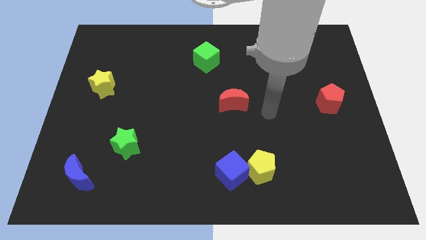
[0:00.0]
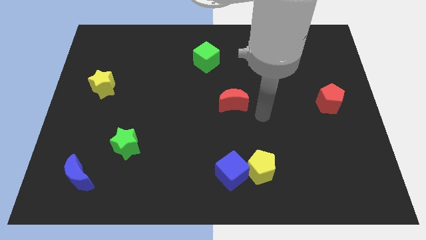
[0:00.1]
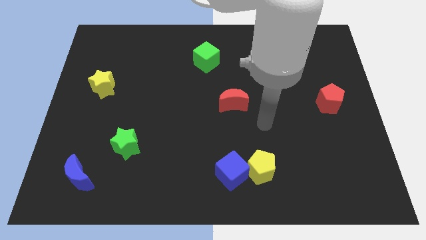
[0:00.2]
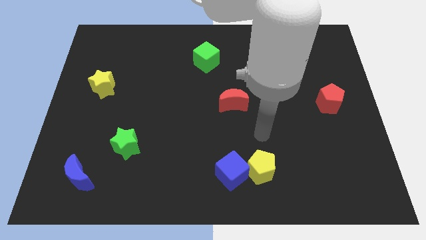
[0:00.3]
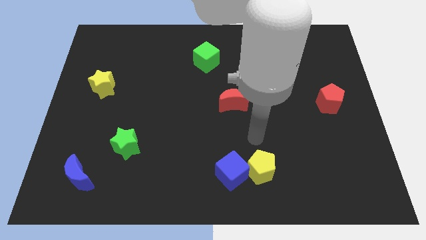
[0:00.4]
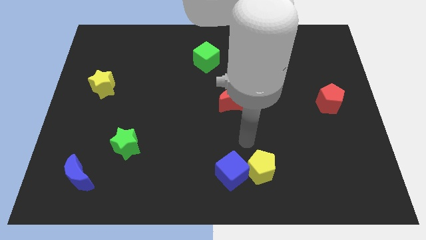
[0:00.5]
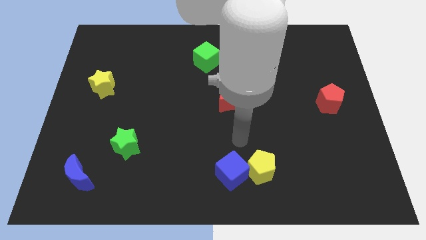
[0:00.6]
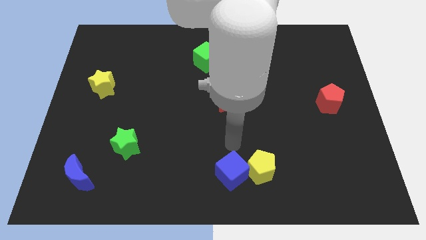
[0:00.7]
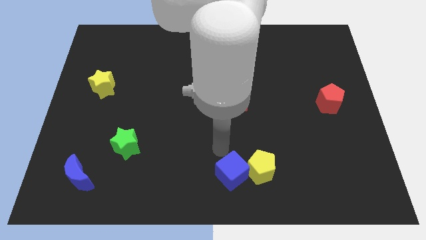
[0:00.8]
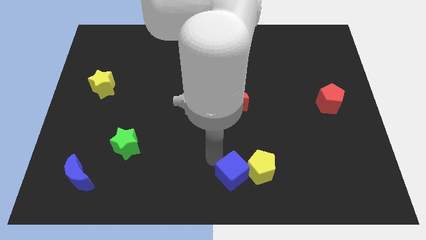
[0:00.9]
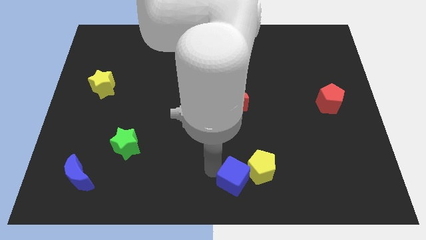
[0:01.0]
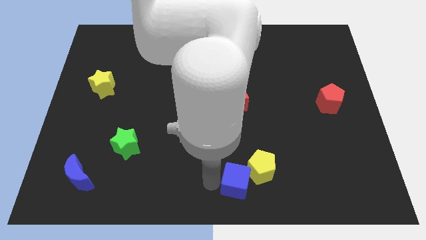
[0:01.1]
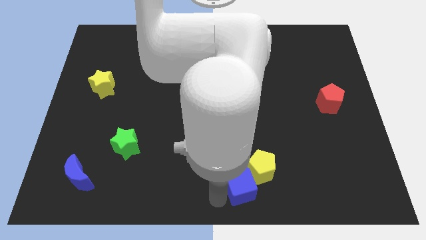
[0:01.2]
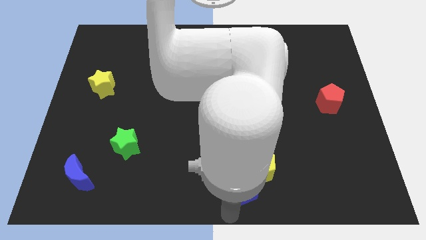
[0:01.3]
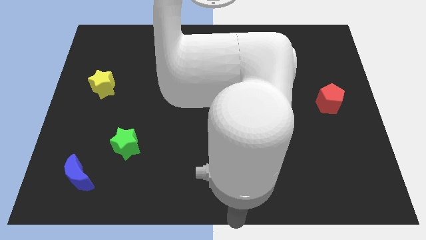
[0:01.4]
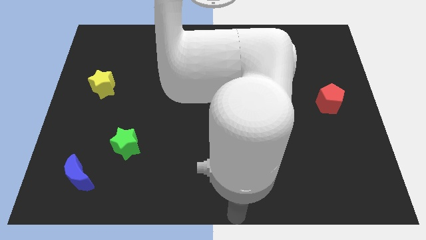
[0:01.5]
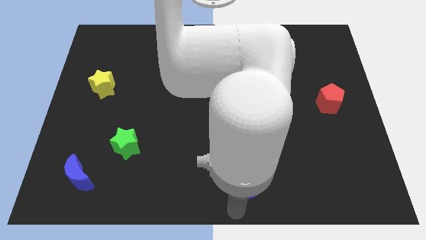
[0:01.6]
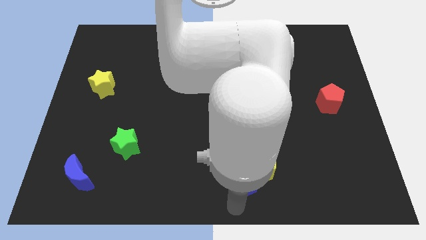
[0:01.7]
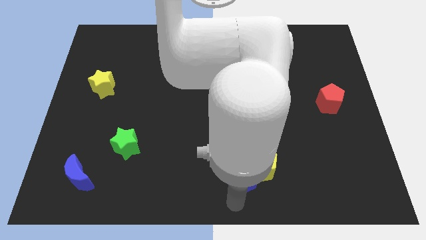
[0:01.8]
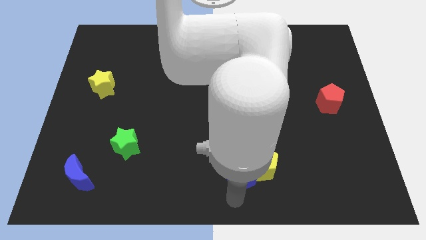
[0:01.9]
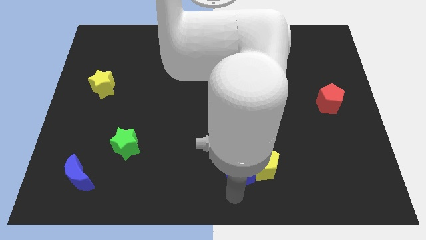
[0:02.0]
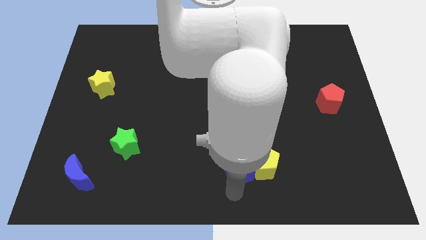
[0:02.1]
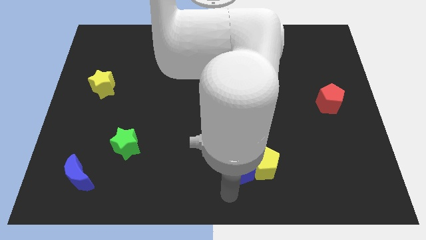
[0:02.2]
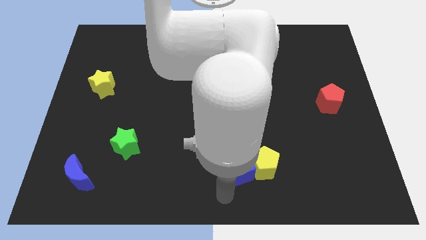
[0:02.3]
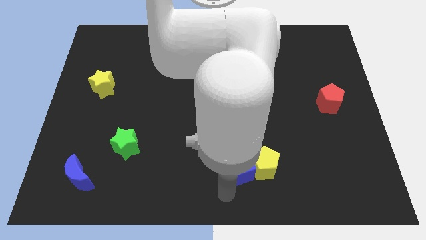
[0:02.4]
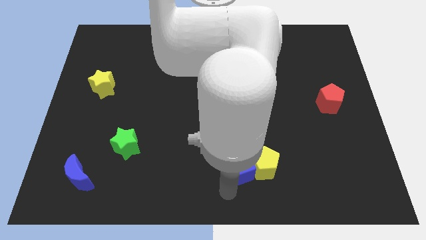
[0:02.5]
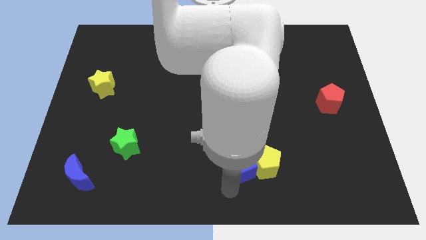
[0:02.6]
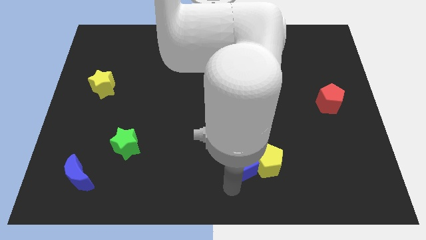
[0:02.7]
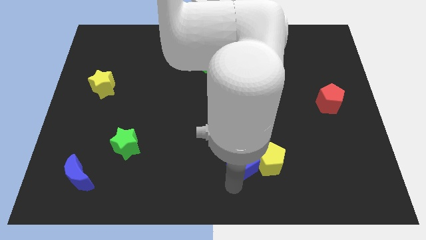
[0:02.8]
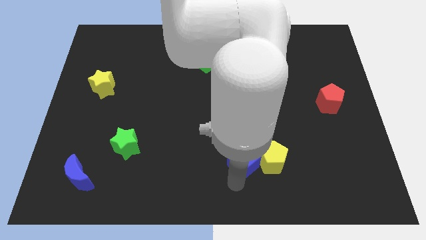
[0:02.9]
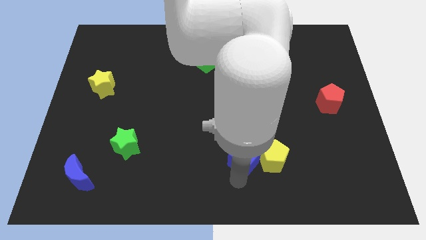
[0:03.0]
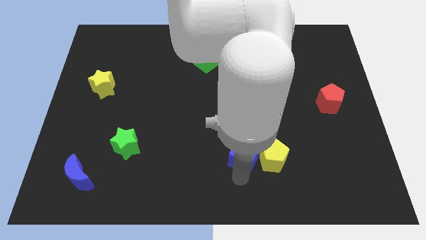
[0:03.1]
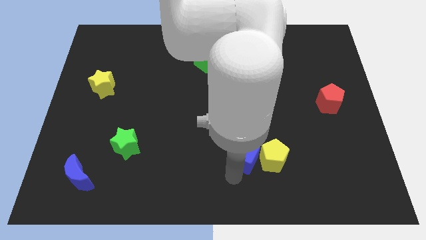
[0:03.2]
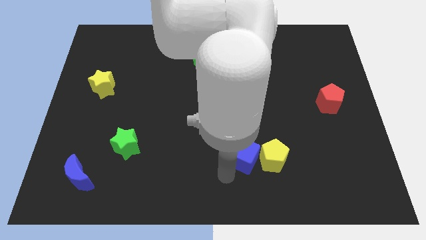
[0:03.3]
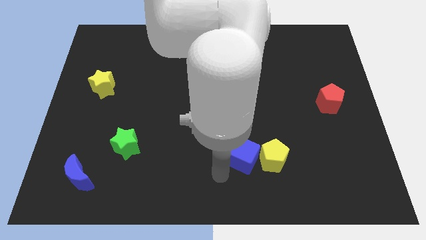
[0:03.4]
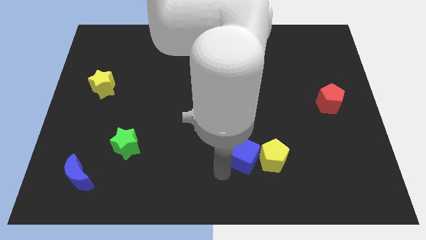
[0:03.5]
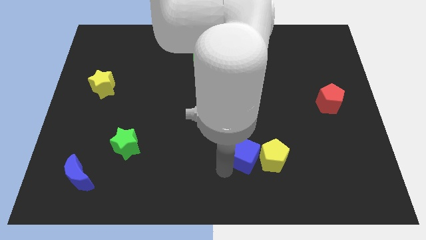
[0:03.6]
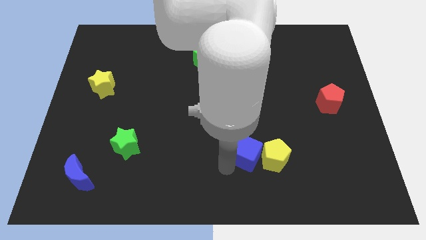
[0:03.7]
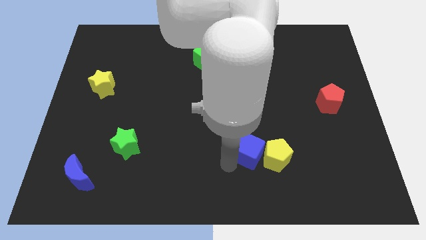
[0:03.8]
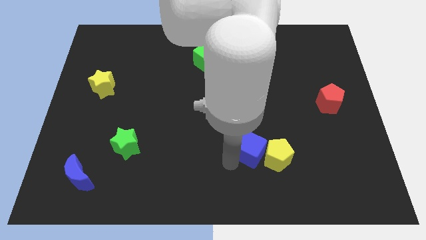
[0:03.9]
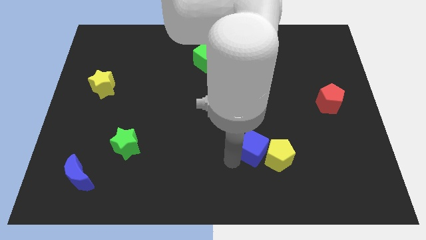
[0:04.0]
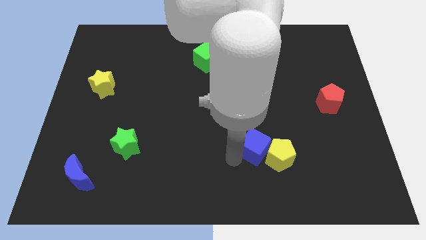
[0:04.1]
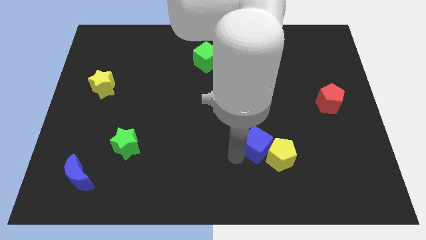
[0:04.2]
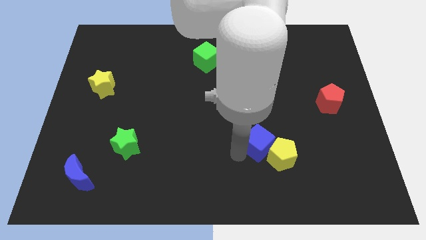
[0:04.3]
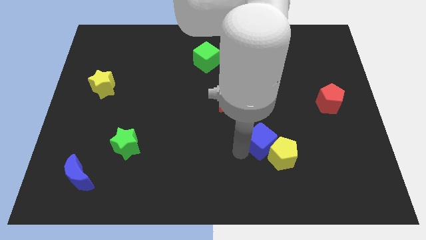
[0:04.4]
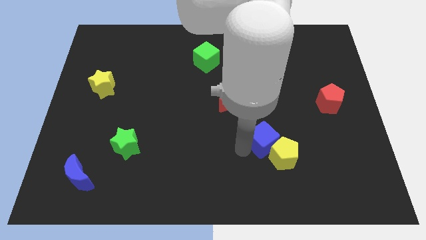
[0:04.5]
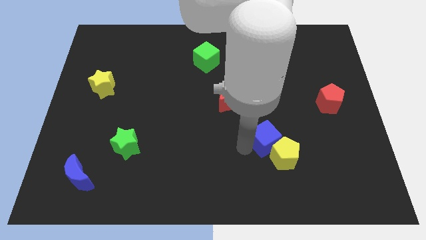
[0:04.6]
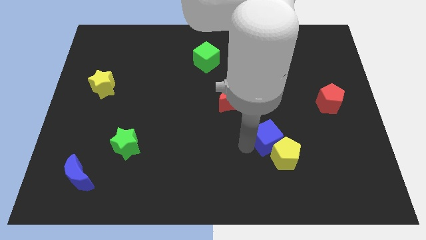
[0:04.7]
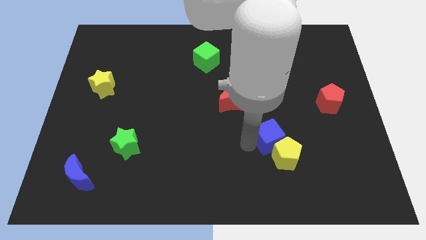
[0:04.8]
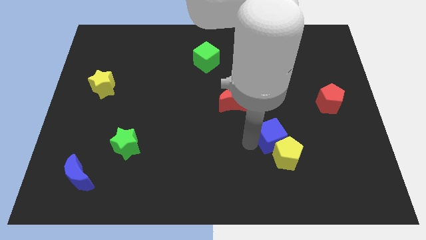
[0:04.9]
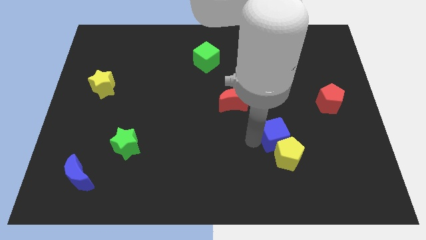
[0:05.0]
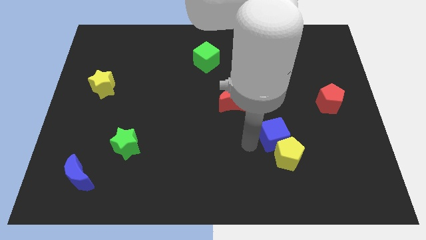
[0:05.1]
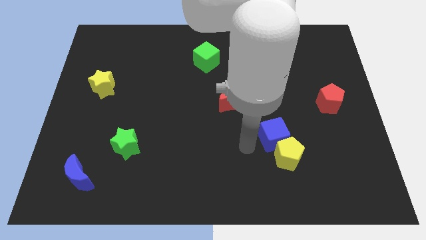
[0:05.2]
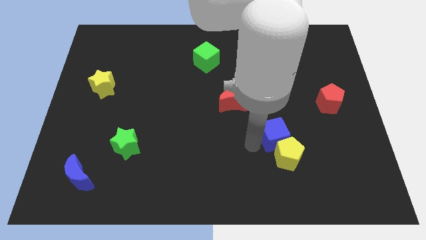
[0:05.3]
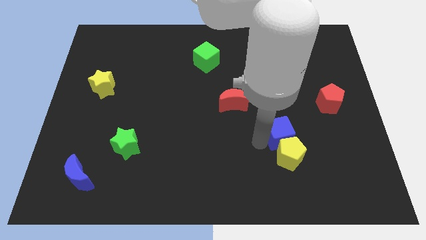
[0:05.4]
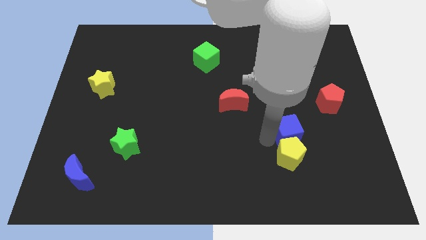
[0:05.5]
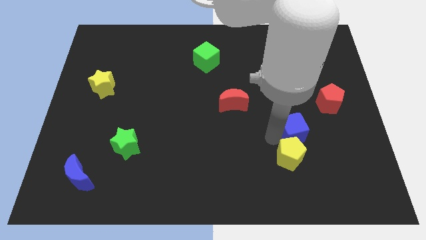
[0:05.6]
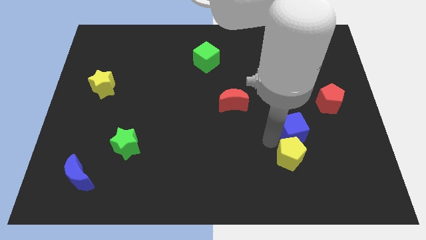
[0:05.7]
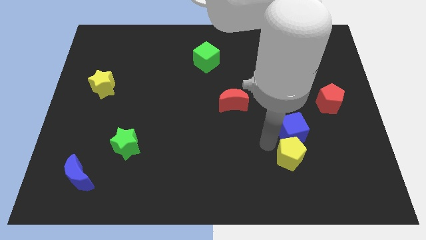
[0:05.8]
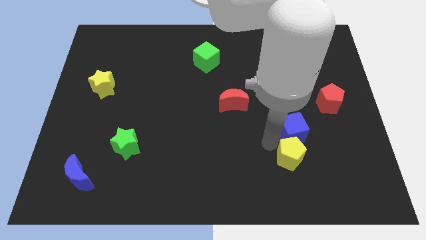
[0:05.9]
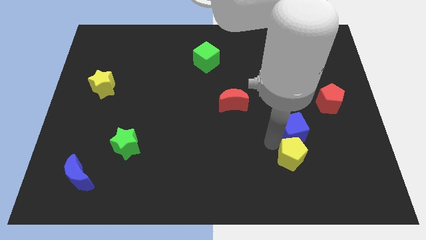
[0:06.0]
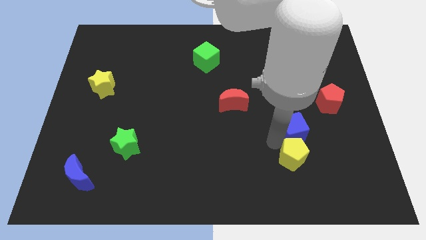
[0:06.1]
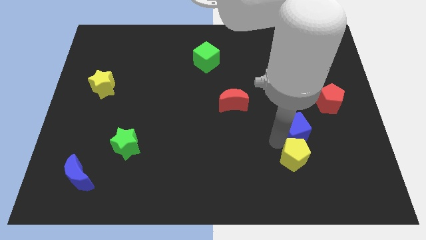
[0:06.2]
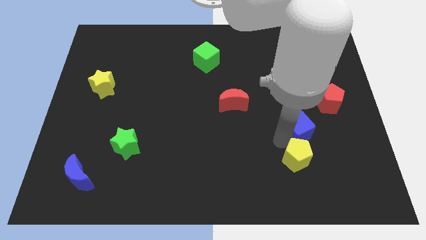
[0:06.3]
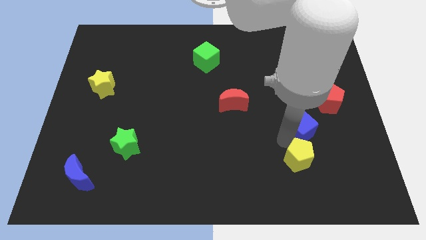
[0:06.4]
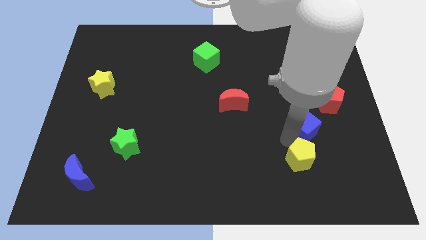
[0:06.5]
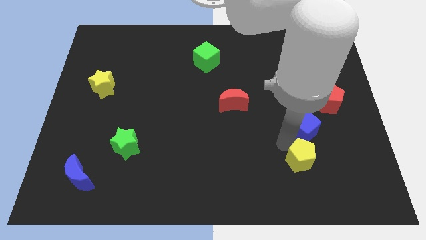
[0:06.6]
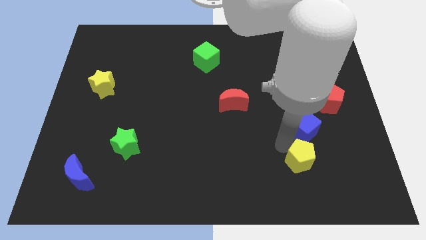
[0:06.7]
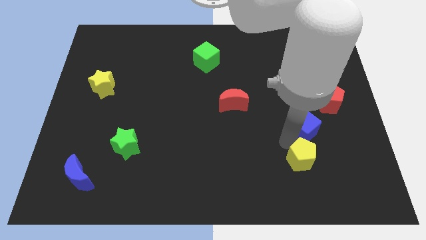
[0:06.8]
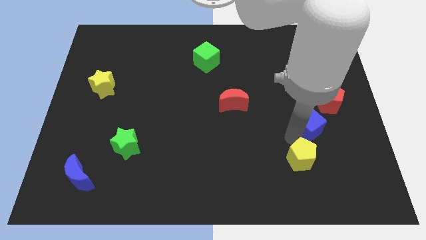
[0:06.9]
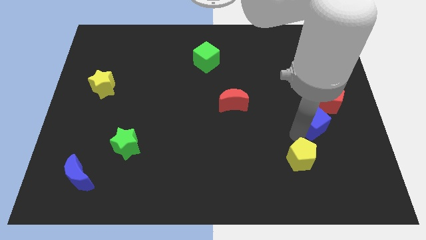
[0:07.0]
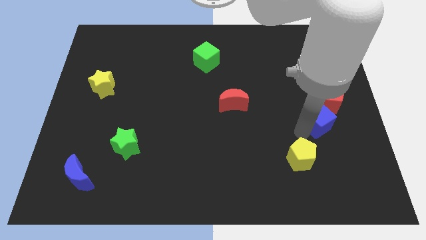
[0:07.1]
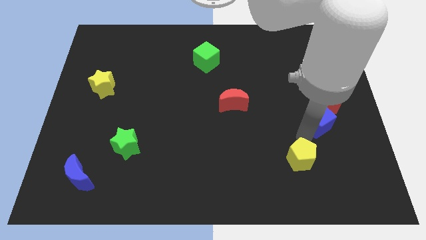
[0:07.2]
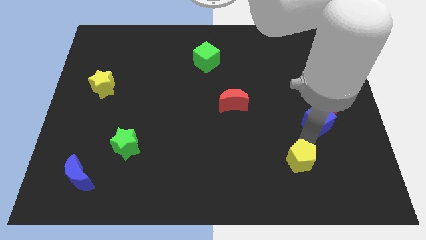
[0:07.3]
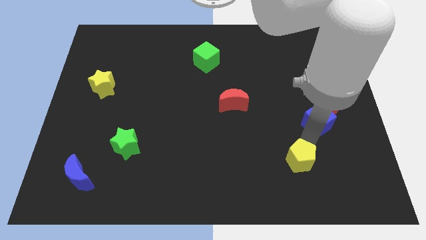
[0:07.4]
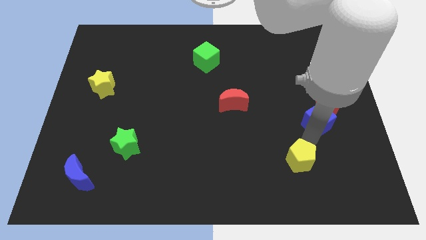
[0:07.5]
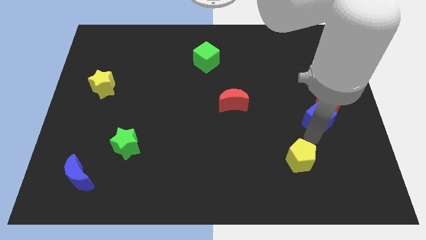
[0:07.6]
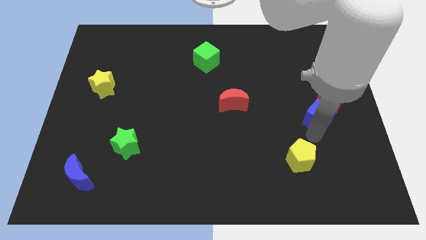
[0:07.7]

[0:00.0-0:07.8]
push the blue cube to the red pentagon
